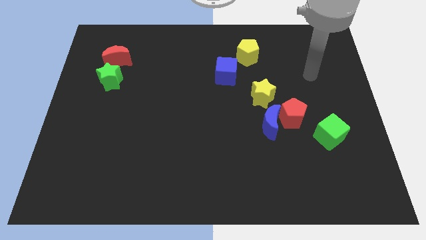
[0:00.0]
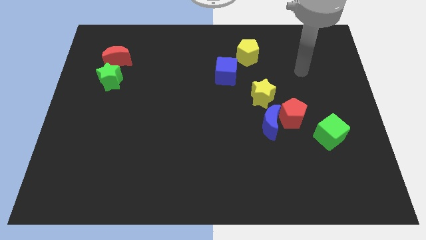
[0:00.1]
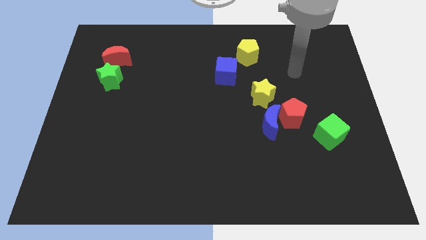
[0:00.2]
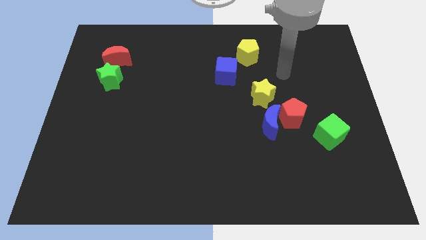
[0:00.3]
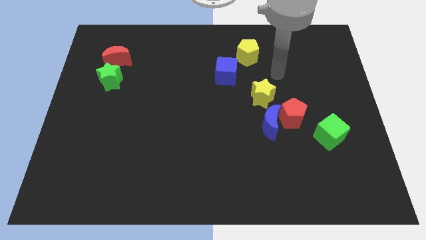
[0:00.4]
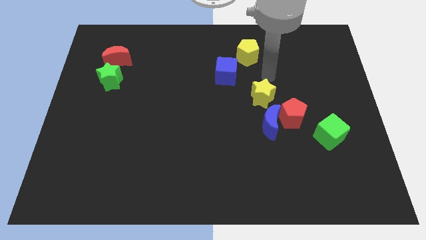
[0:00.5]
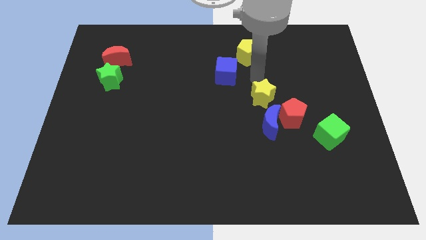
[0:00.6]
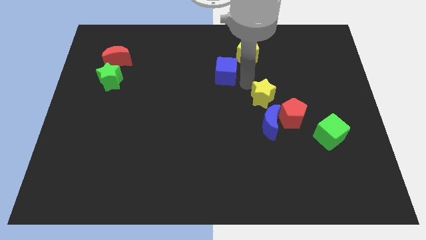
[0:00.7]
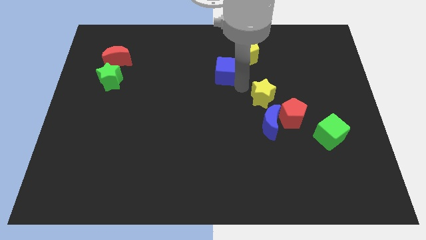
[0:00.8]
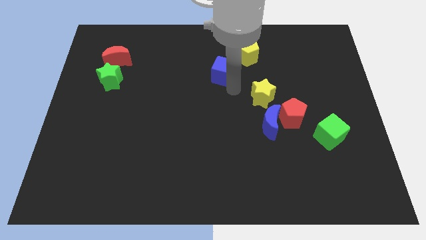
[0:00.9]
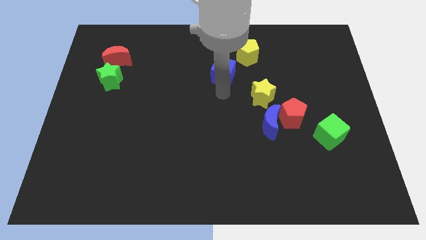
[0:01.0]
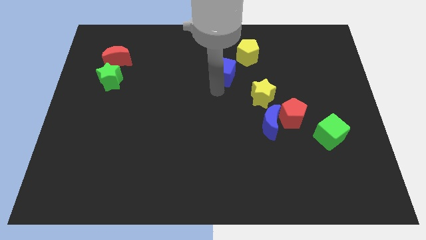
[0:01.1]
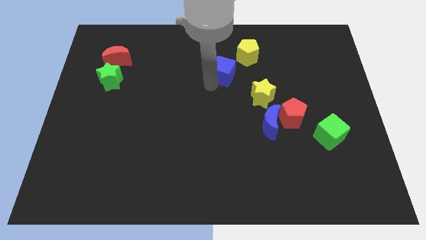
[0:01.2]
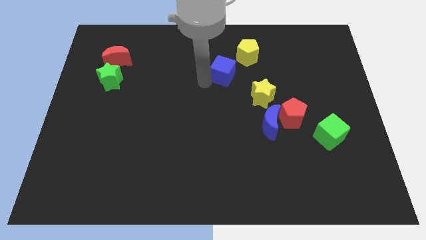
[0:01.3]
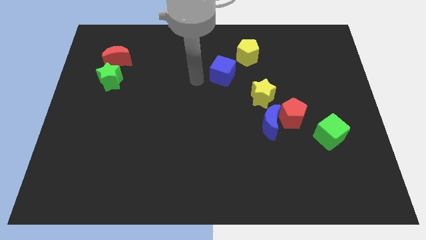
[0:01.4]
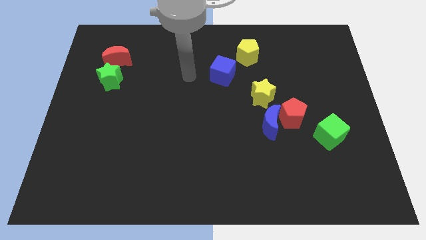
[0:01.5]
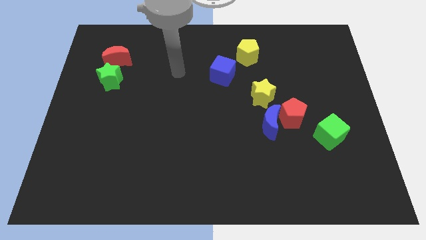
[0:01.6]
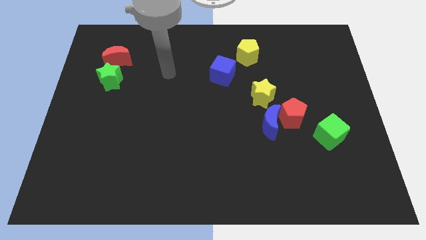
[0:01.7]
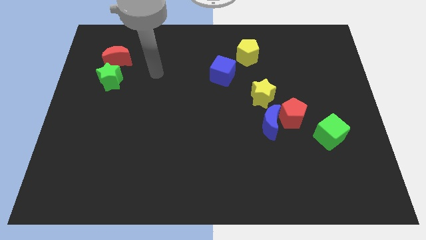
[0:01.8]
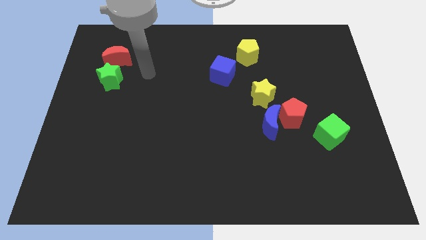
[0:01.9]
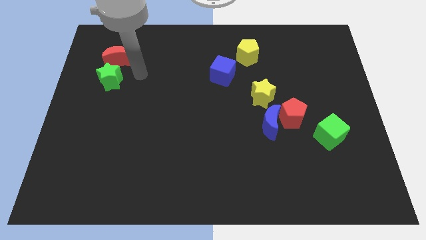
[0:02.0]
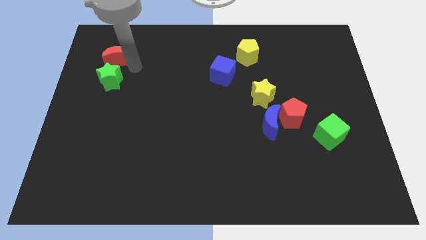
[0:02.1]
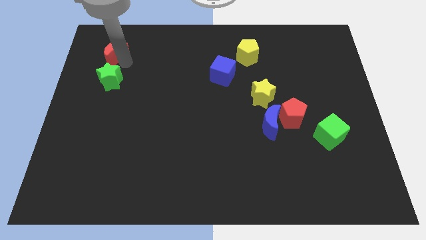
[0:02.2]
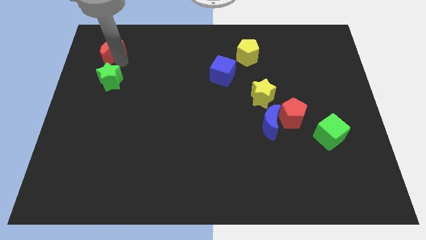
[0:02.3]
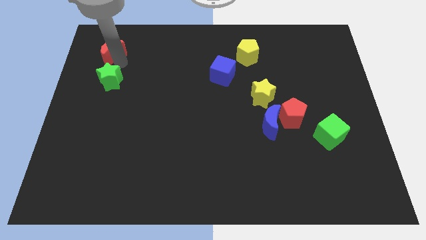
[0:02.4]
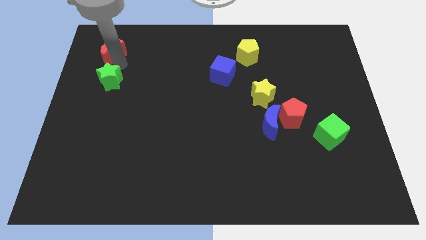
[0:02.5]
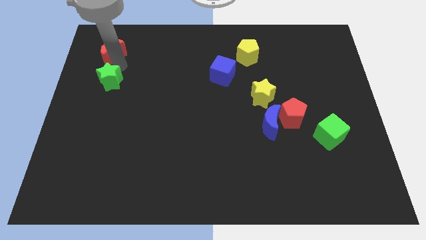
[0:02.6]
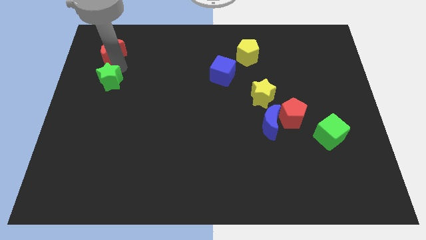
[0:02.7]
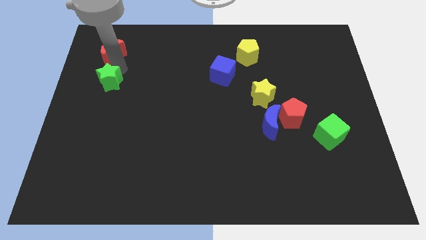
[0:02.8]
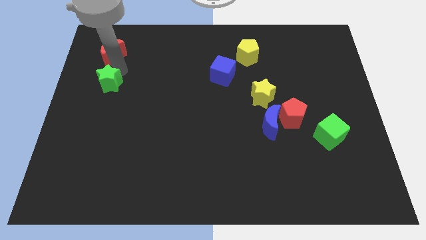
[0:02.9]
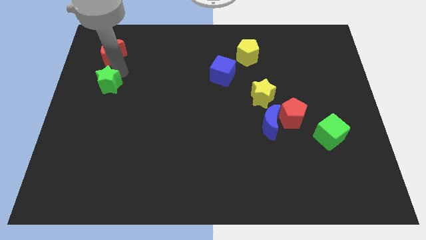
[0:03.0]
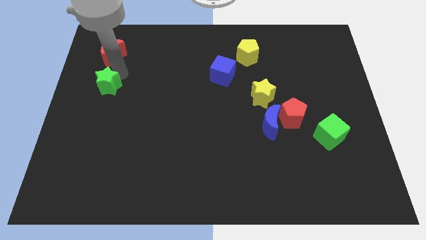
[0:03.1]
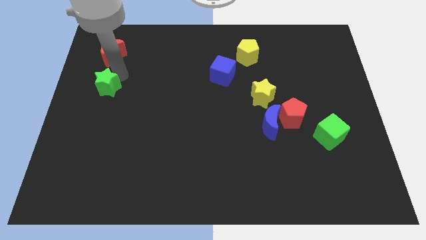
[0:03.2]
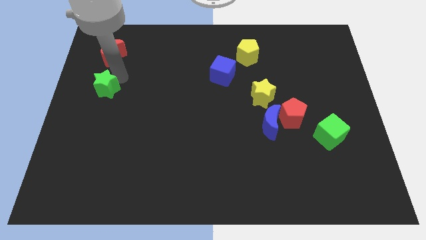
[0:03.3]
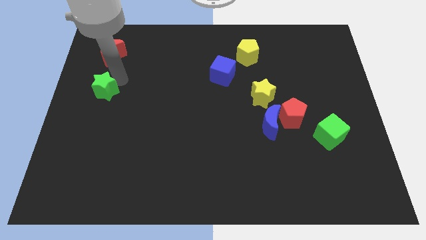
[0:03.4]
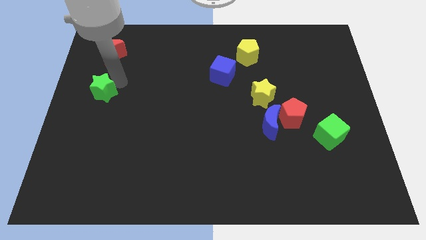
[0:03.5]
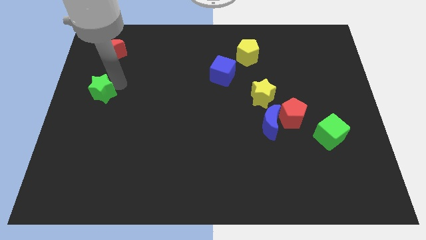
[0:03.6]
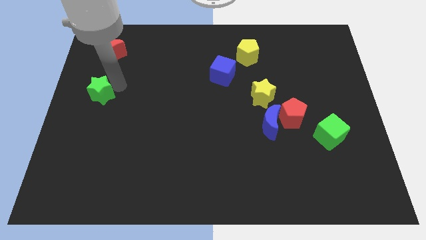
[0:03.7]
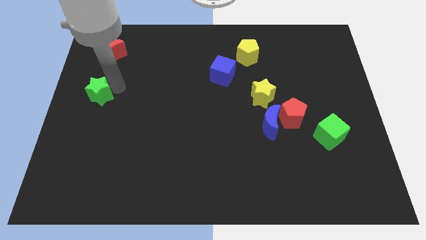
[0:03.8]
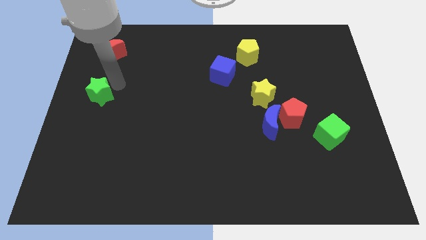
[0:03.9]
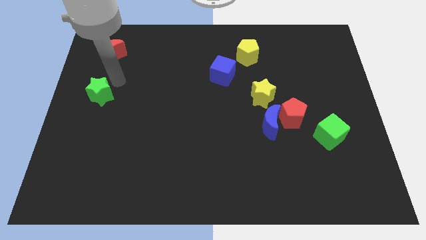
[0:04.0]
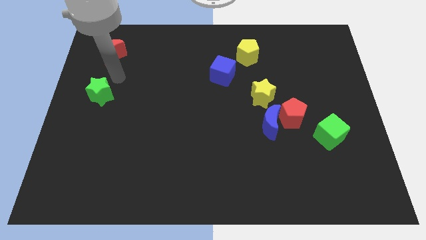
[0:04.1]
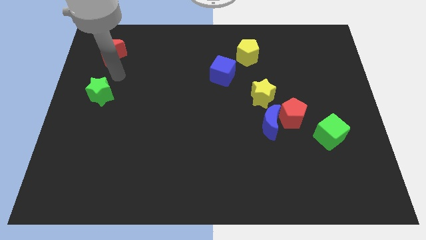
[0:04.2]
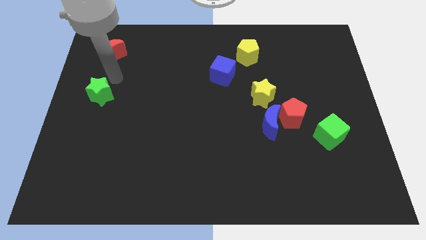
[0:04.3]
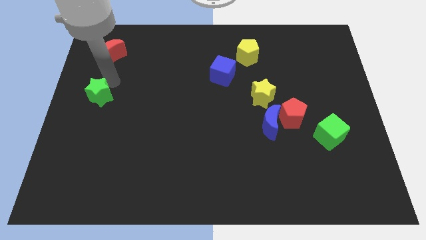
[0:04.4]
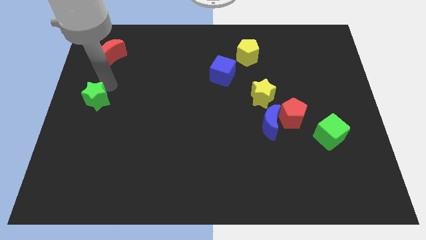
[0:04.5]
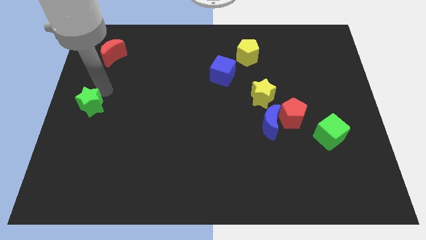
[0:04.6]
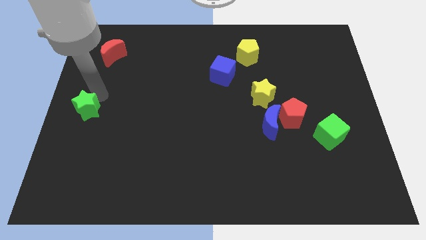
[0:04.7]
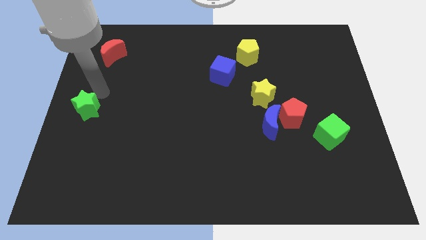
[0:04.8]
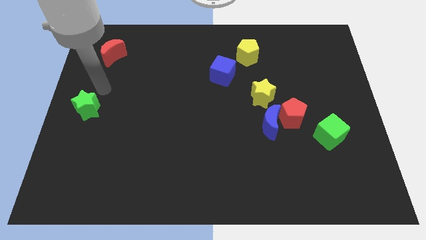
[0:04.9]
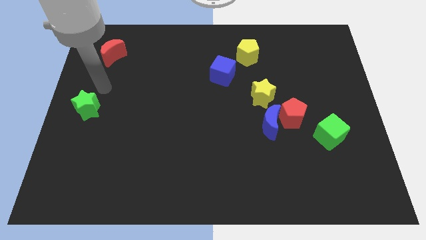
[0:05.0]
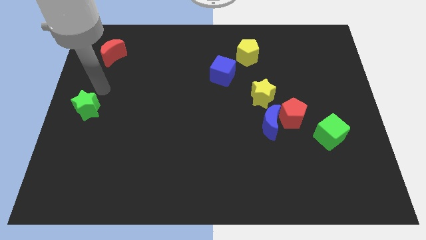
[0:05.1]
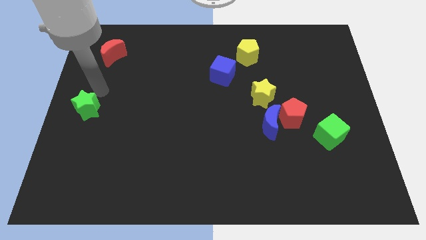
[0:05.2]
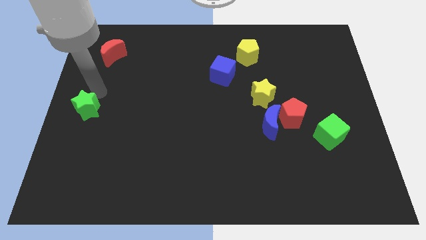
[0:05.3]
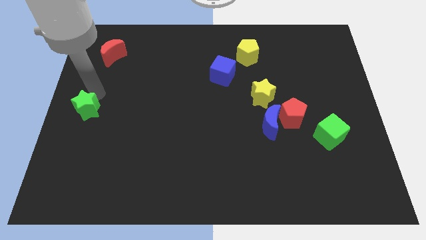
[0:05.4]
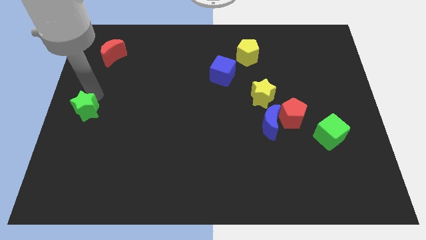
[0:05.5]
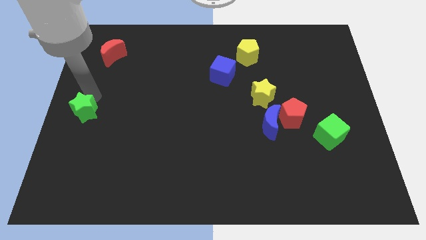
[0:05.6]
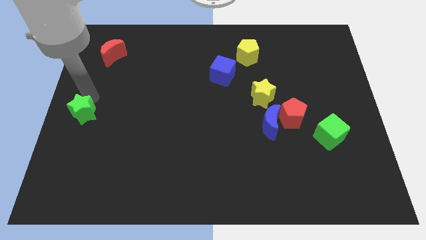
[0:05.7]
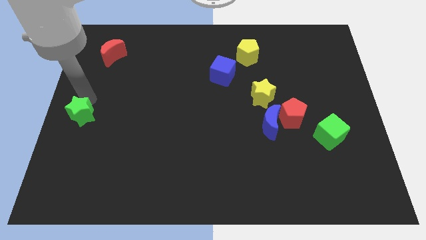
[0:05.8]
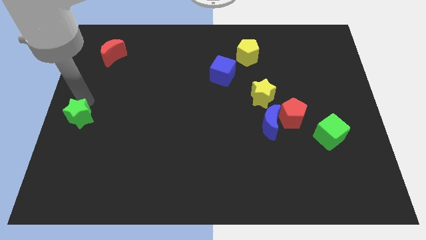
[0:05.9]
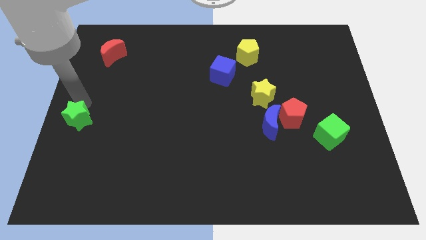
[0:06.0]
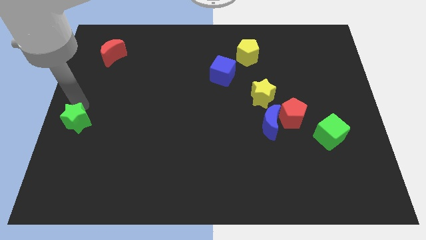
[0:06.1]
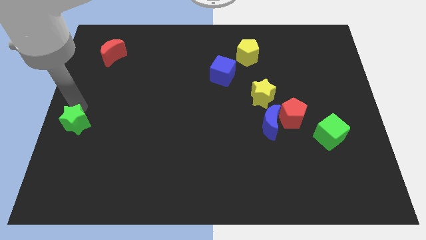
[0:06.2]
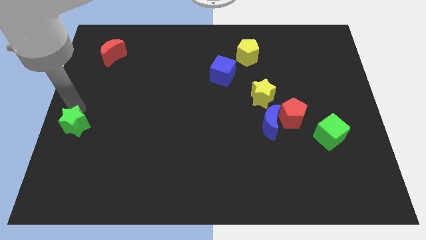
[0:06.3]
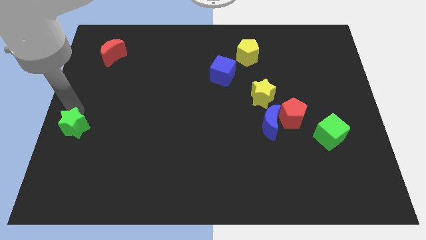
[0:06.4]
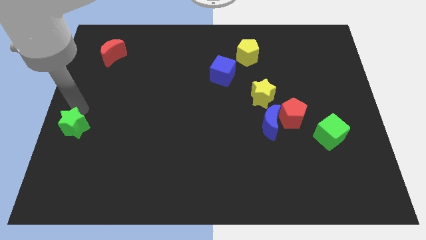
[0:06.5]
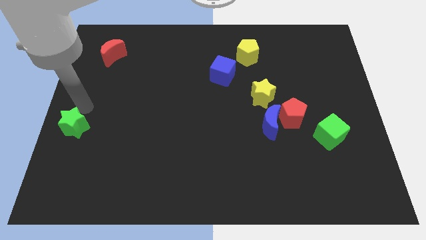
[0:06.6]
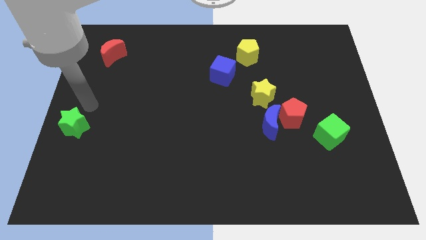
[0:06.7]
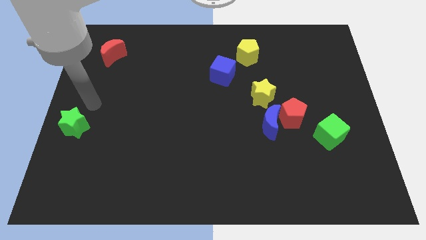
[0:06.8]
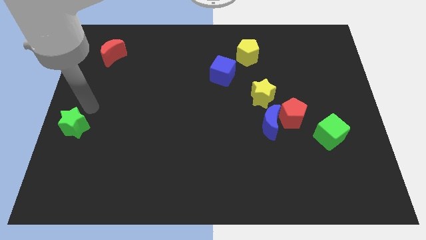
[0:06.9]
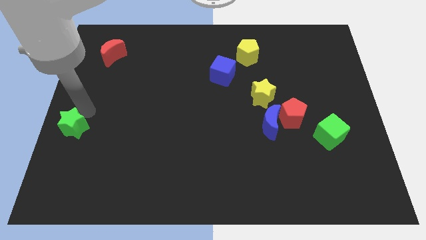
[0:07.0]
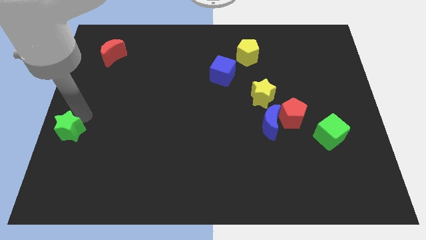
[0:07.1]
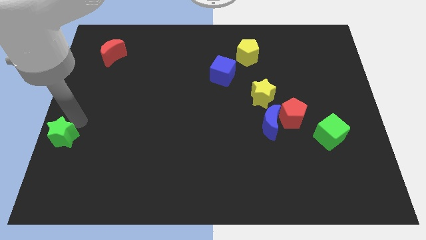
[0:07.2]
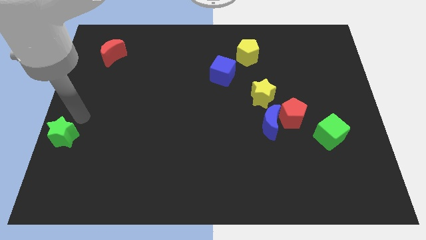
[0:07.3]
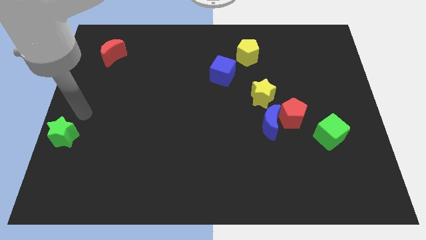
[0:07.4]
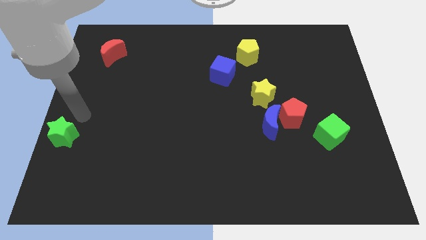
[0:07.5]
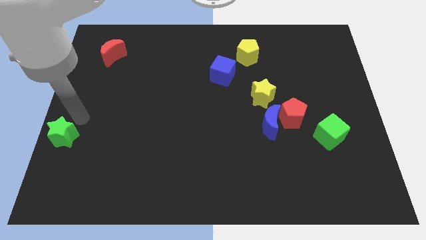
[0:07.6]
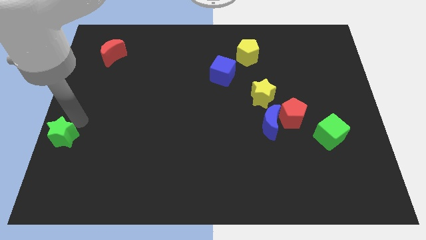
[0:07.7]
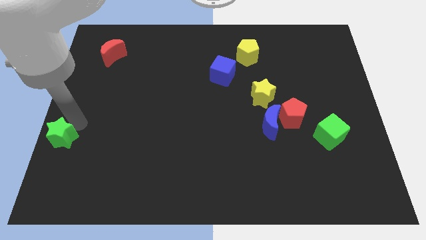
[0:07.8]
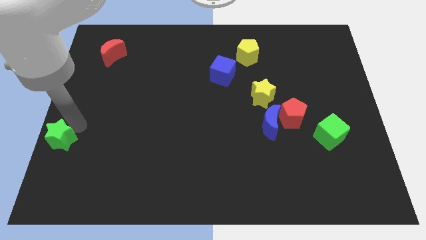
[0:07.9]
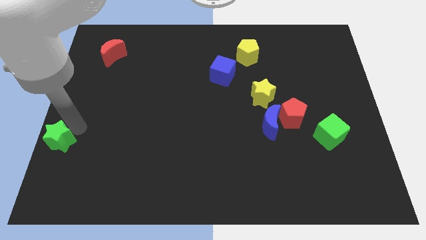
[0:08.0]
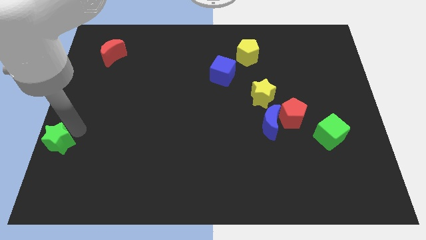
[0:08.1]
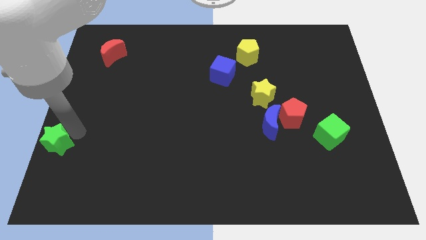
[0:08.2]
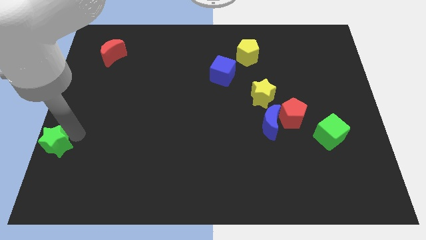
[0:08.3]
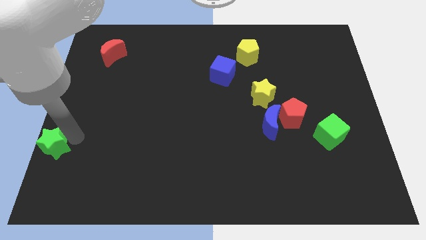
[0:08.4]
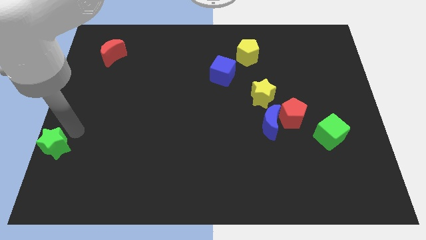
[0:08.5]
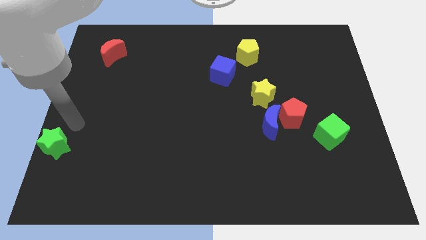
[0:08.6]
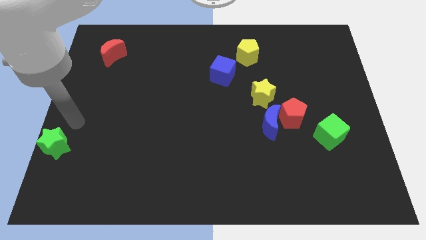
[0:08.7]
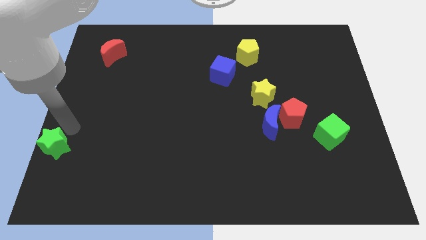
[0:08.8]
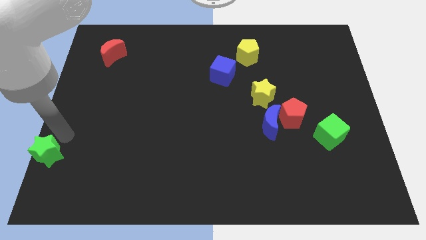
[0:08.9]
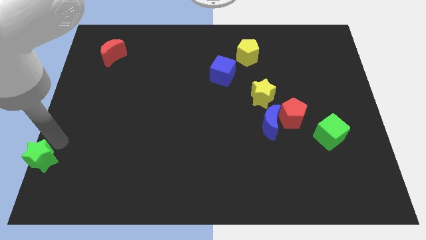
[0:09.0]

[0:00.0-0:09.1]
slide the green star to the bottom left of the board
